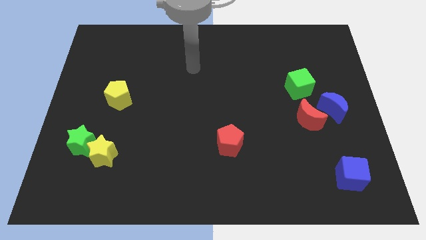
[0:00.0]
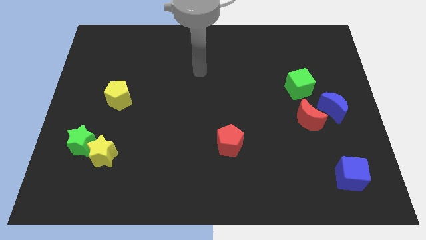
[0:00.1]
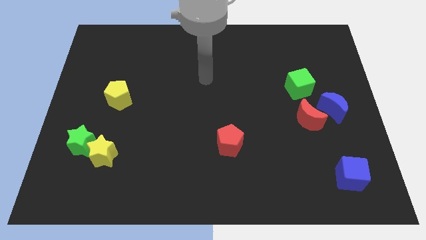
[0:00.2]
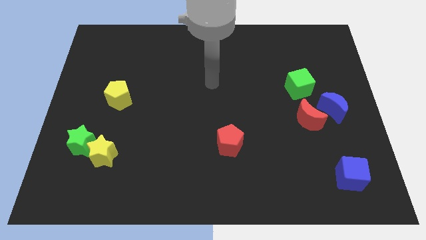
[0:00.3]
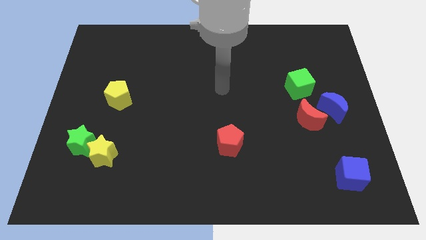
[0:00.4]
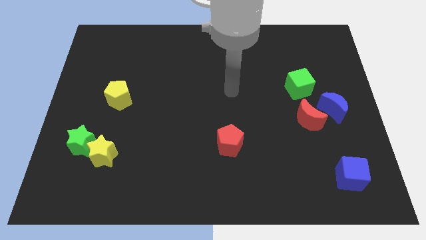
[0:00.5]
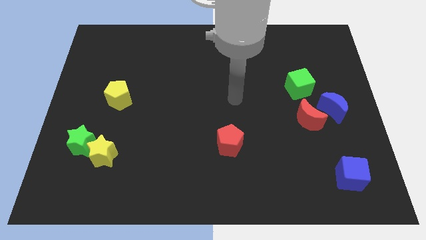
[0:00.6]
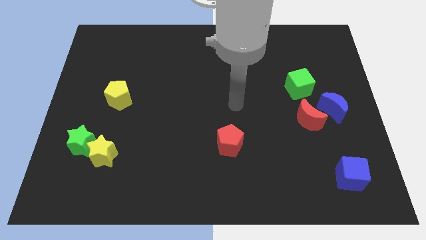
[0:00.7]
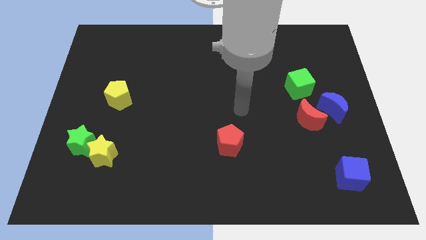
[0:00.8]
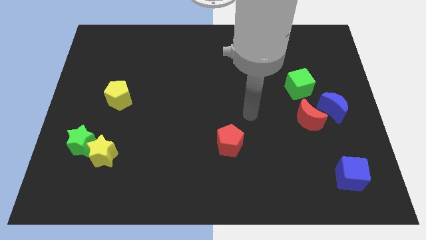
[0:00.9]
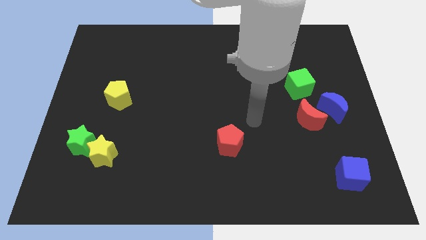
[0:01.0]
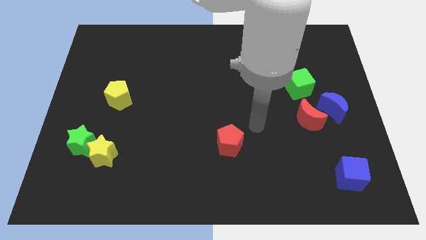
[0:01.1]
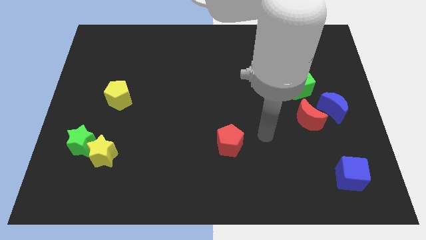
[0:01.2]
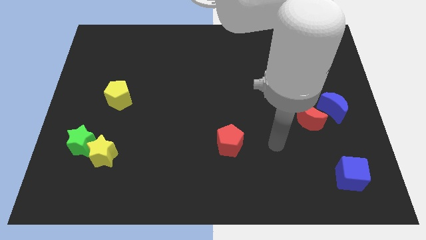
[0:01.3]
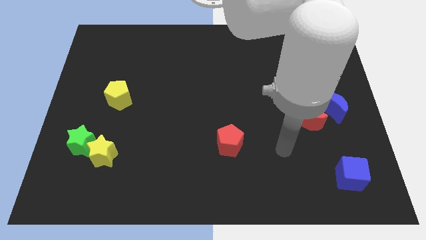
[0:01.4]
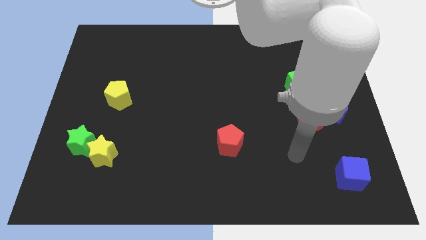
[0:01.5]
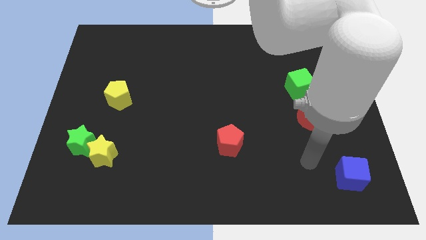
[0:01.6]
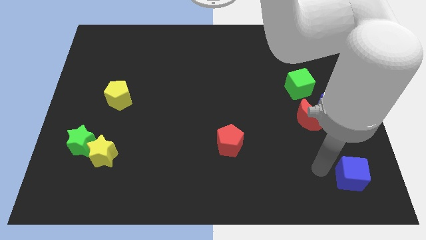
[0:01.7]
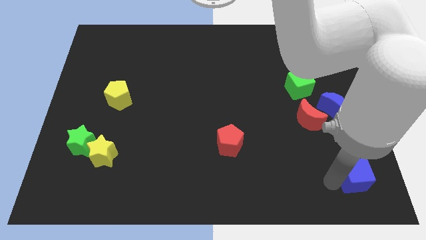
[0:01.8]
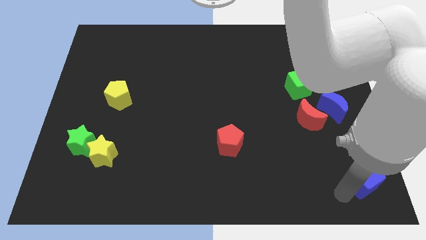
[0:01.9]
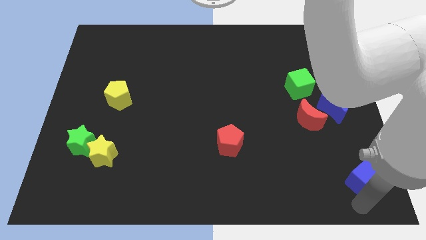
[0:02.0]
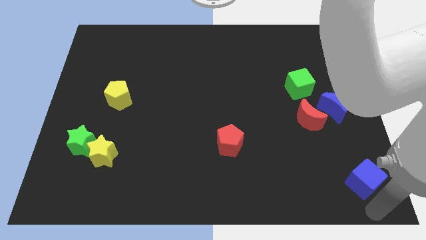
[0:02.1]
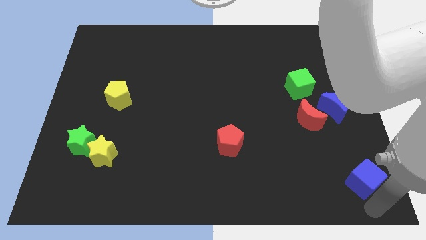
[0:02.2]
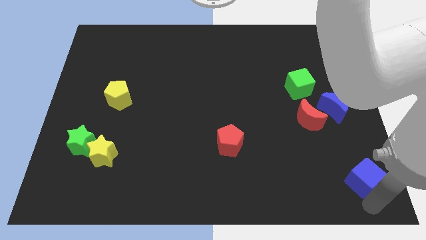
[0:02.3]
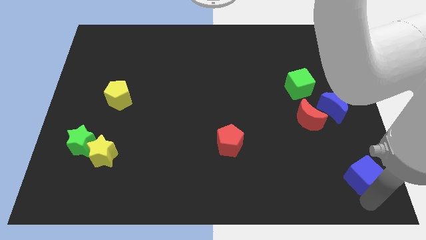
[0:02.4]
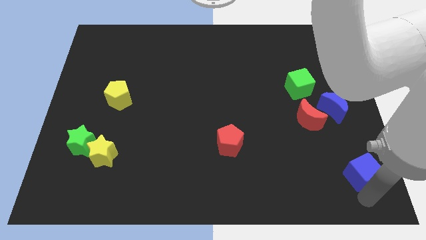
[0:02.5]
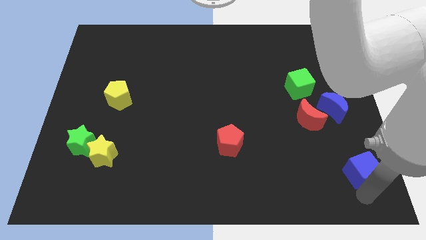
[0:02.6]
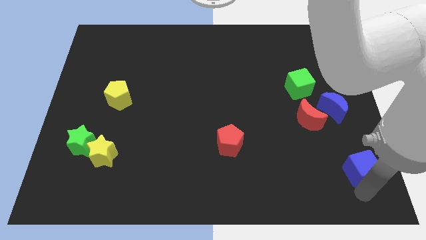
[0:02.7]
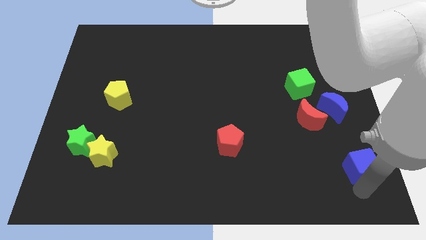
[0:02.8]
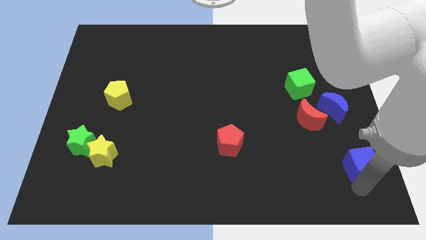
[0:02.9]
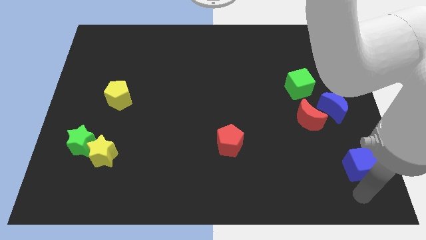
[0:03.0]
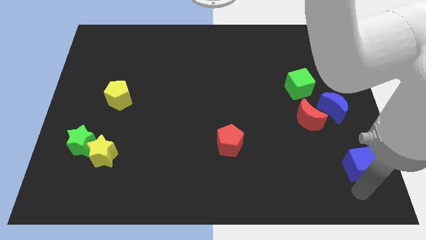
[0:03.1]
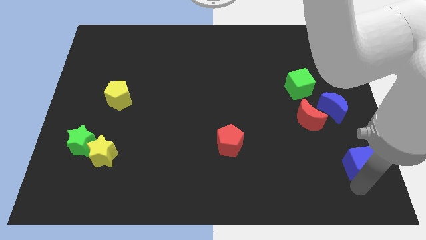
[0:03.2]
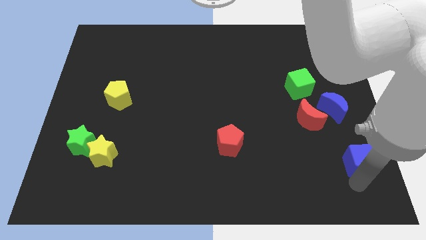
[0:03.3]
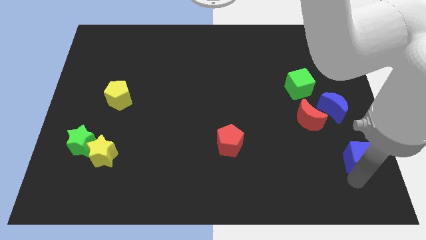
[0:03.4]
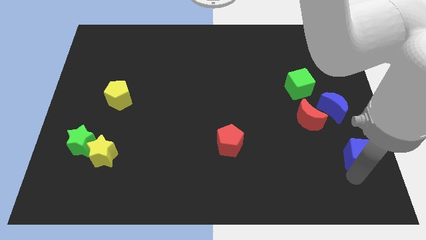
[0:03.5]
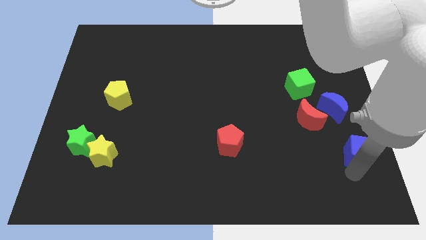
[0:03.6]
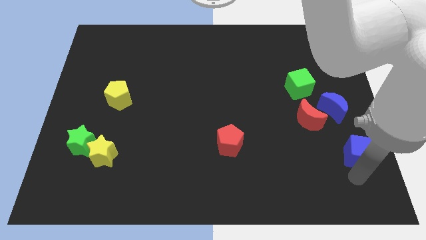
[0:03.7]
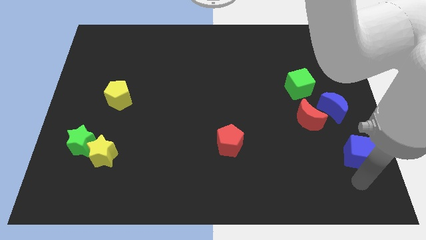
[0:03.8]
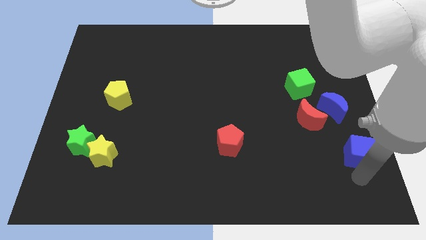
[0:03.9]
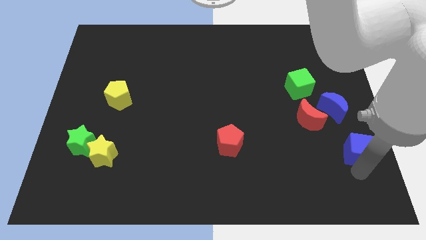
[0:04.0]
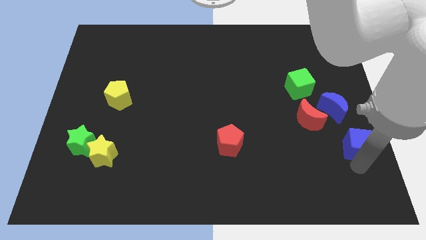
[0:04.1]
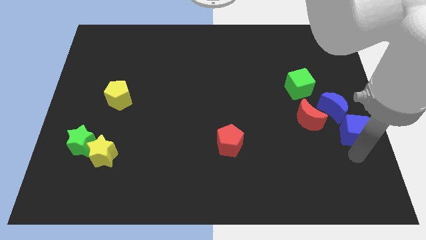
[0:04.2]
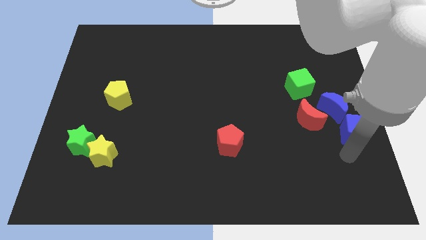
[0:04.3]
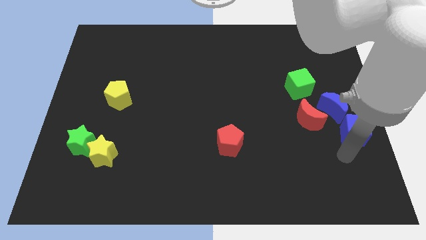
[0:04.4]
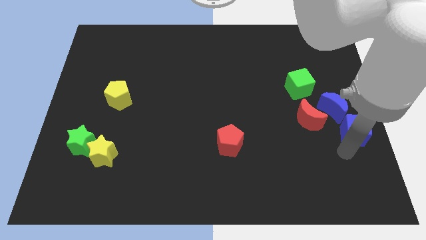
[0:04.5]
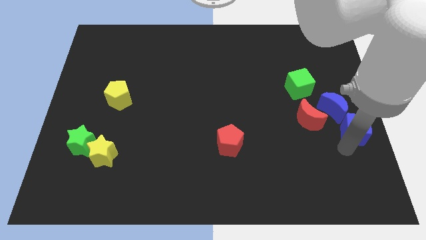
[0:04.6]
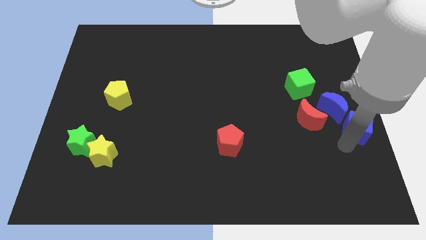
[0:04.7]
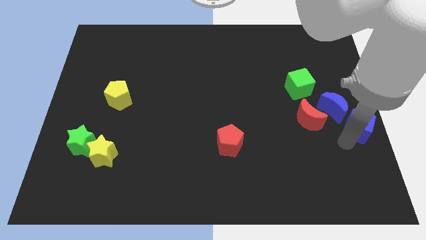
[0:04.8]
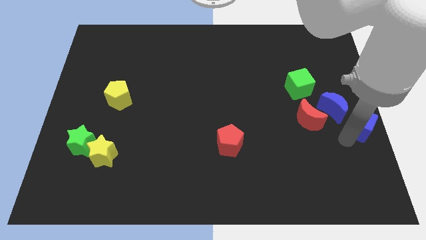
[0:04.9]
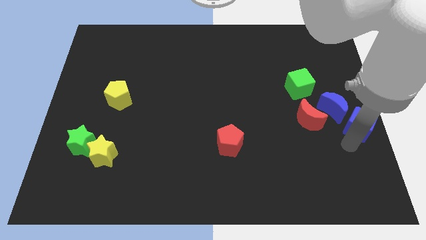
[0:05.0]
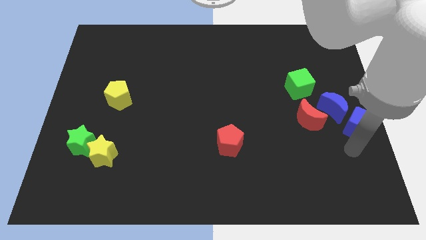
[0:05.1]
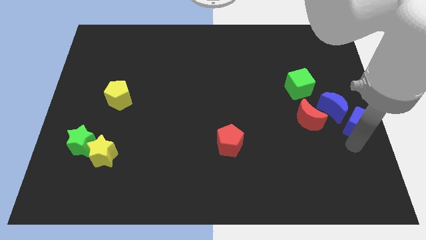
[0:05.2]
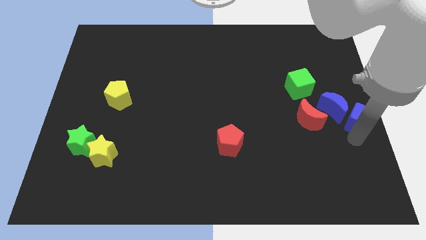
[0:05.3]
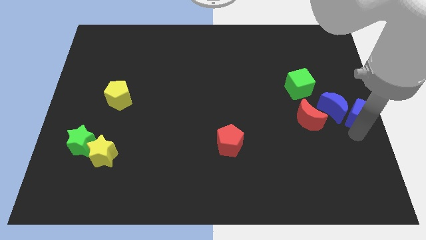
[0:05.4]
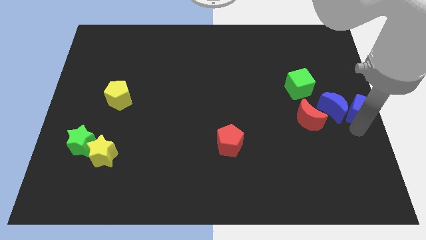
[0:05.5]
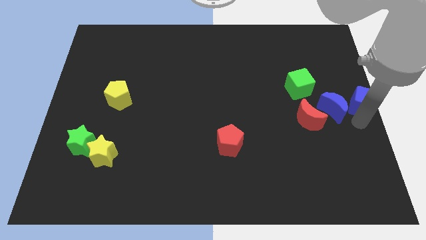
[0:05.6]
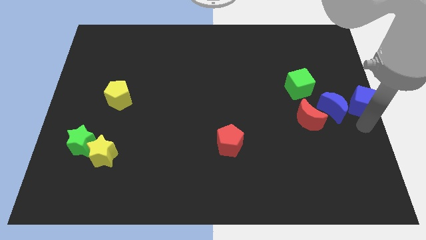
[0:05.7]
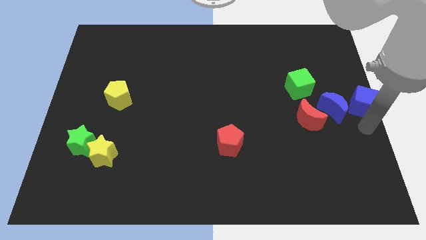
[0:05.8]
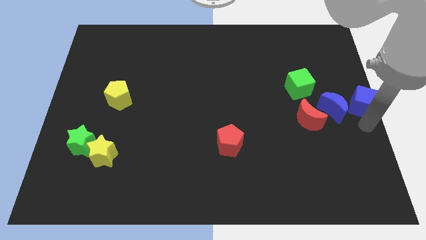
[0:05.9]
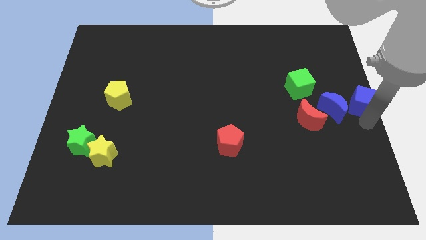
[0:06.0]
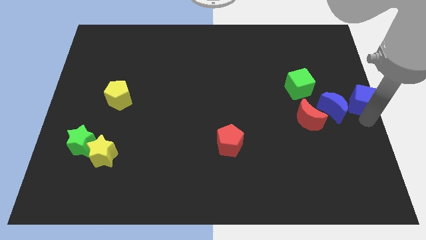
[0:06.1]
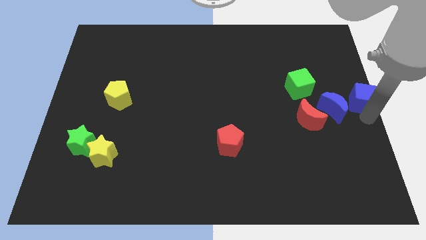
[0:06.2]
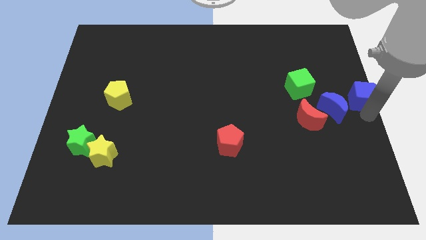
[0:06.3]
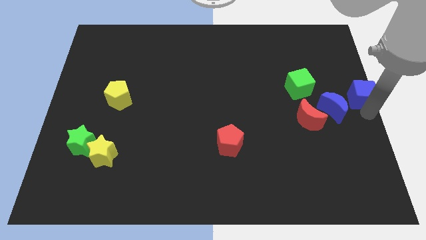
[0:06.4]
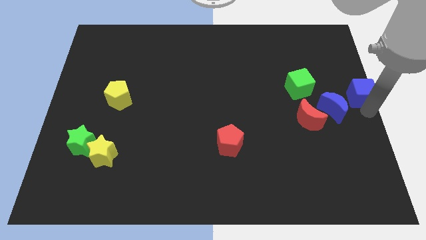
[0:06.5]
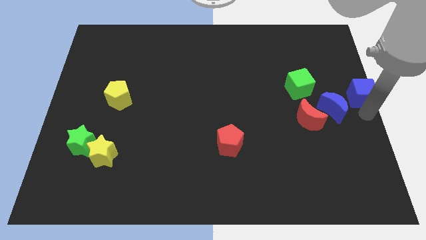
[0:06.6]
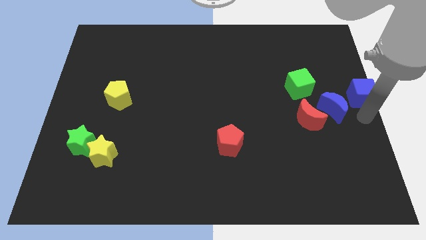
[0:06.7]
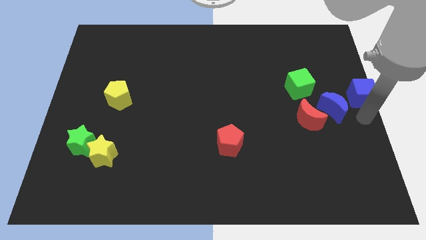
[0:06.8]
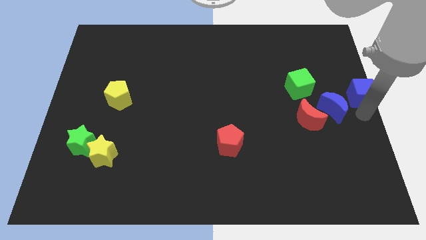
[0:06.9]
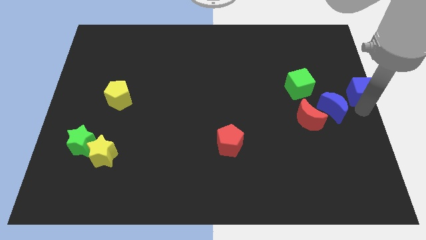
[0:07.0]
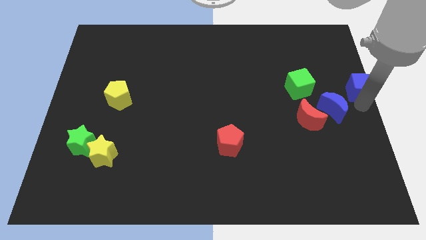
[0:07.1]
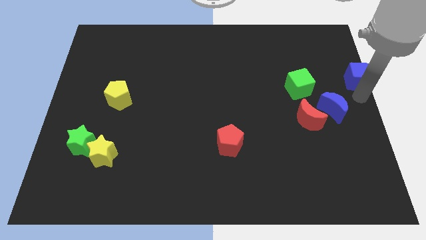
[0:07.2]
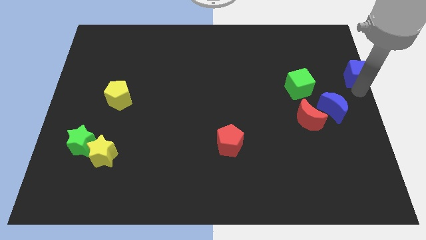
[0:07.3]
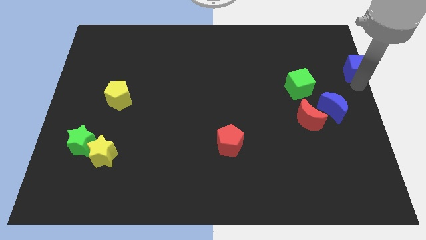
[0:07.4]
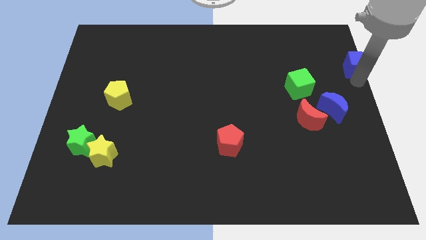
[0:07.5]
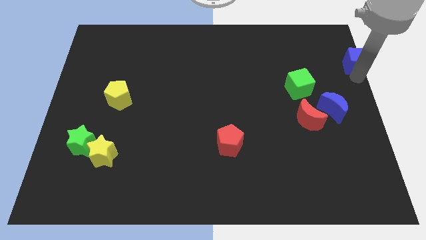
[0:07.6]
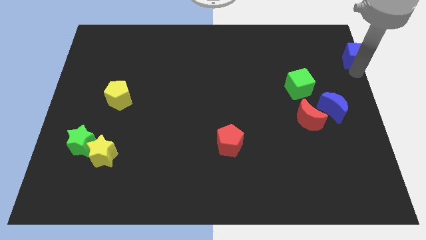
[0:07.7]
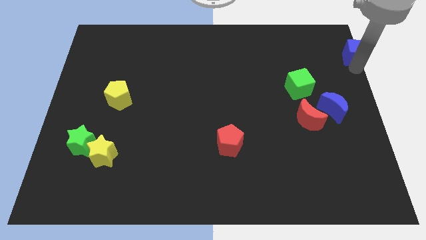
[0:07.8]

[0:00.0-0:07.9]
move the blue cube to the upper right corner
